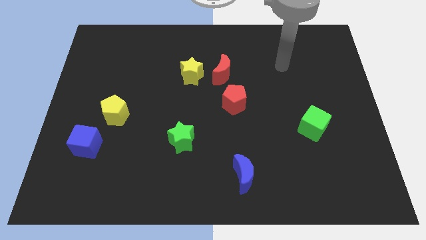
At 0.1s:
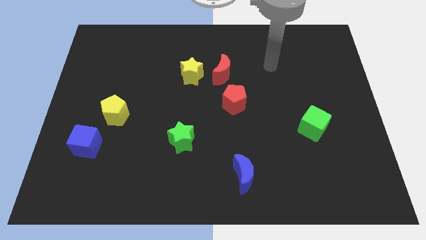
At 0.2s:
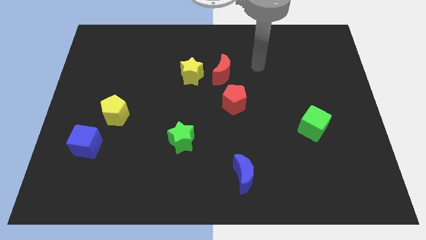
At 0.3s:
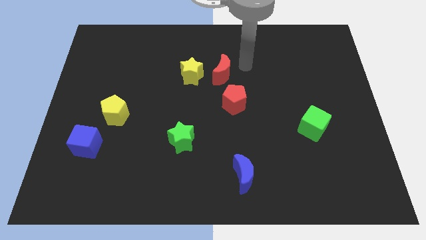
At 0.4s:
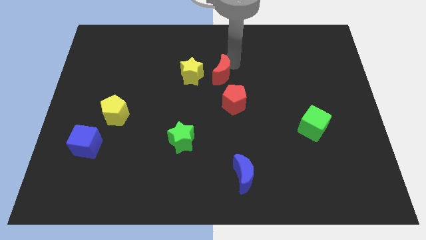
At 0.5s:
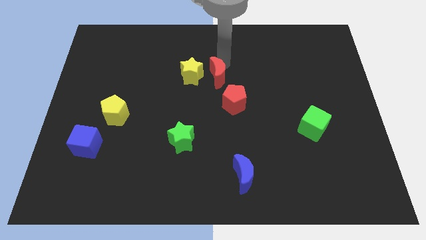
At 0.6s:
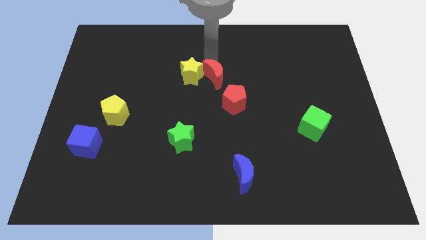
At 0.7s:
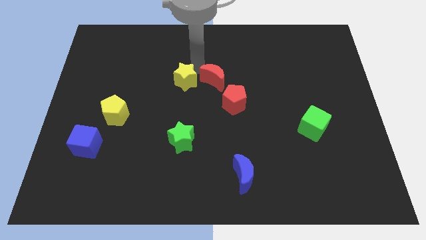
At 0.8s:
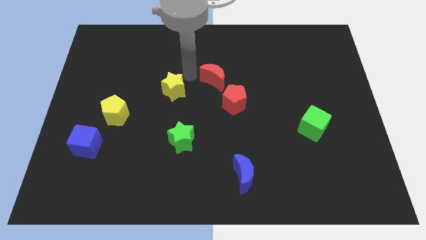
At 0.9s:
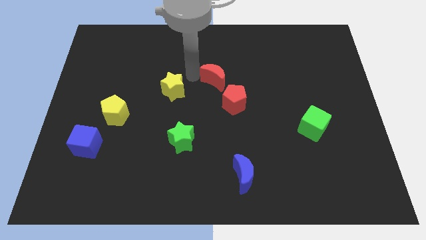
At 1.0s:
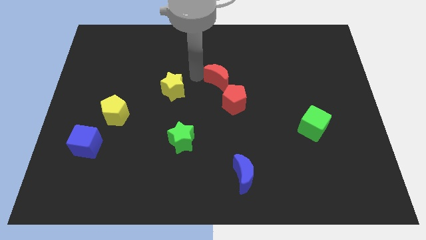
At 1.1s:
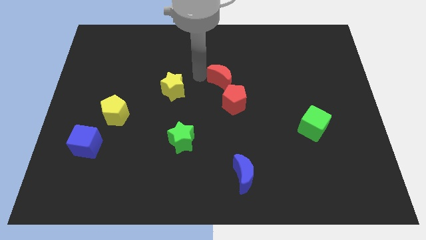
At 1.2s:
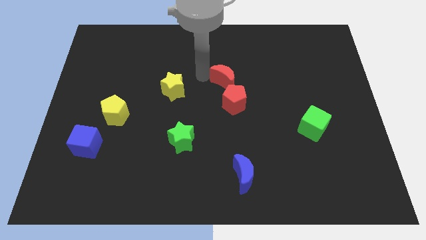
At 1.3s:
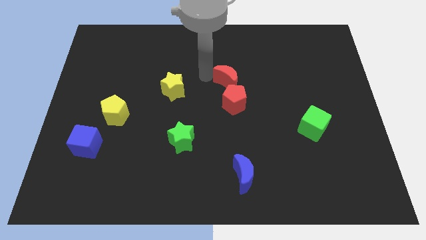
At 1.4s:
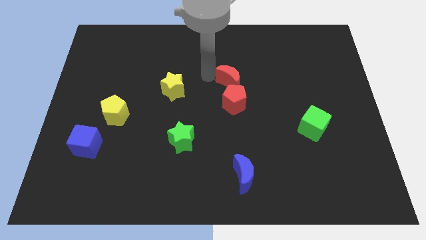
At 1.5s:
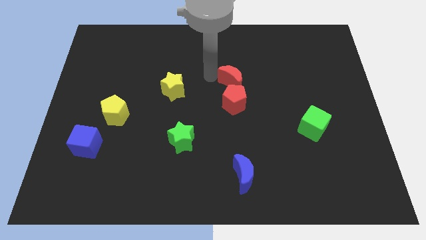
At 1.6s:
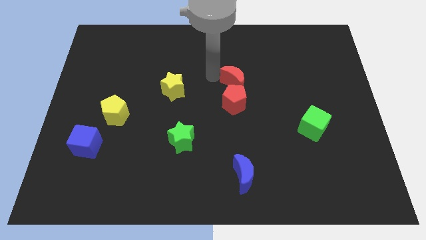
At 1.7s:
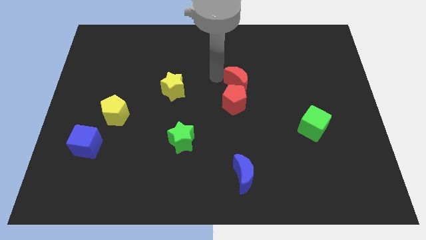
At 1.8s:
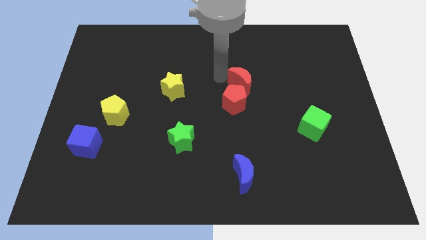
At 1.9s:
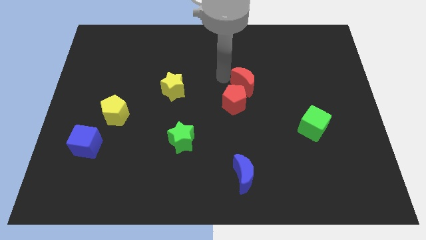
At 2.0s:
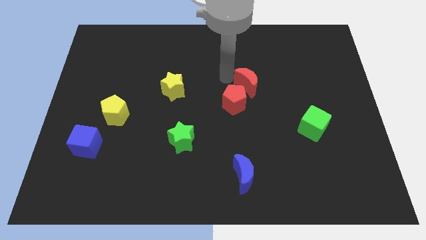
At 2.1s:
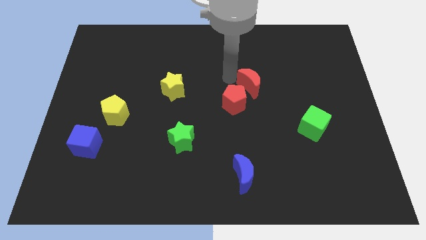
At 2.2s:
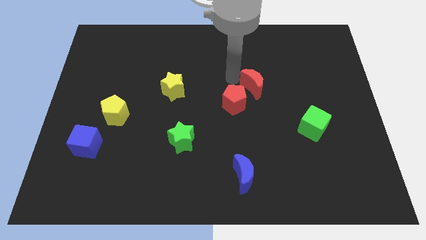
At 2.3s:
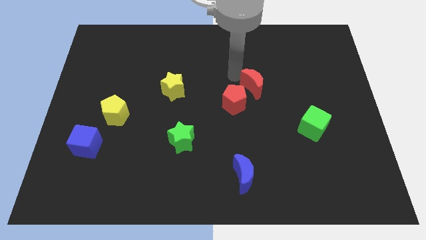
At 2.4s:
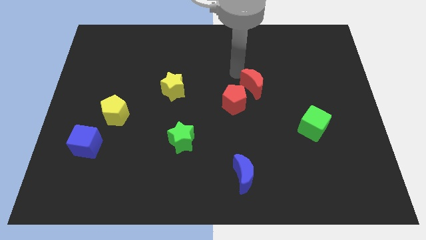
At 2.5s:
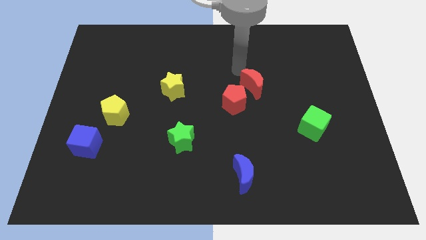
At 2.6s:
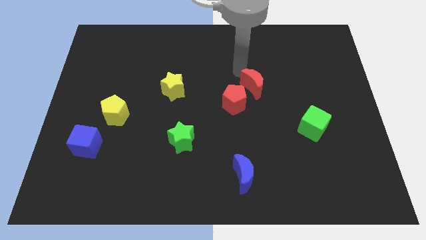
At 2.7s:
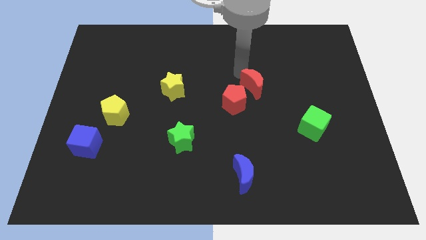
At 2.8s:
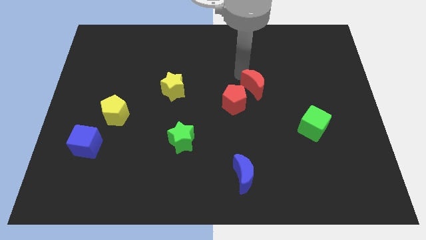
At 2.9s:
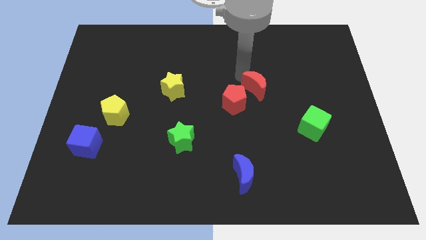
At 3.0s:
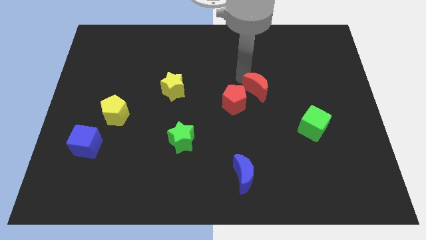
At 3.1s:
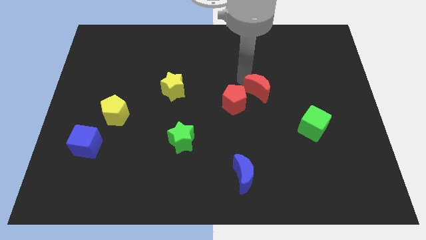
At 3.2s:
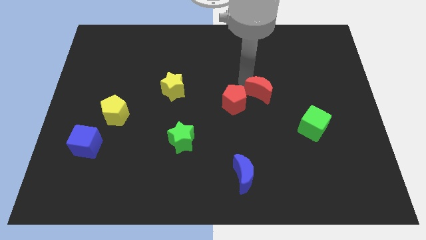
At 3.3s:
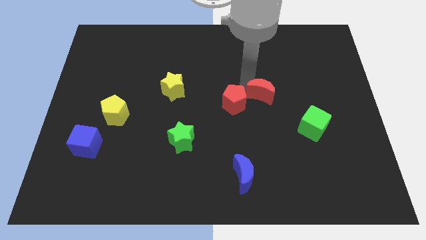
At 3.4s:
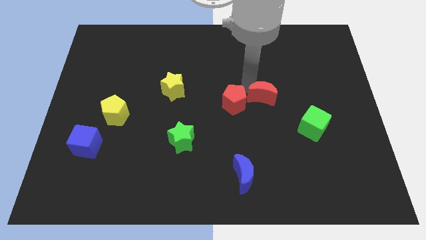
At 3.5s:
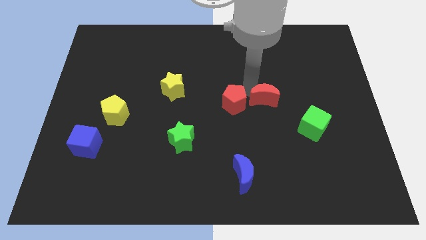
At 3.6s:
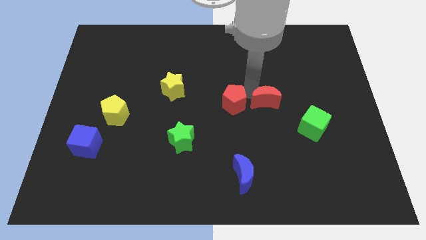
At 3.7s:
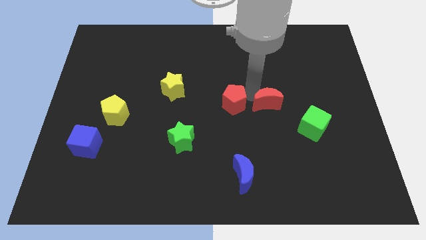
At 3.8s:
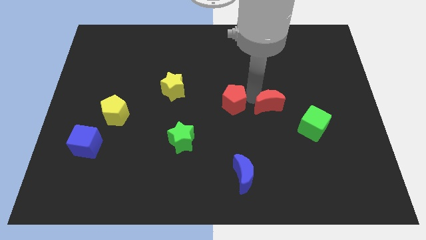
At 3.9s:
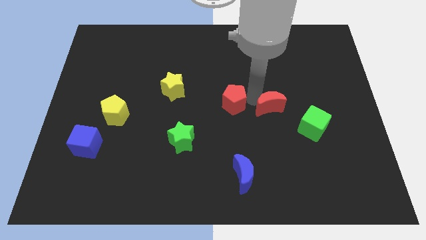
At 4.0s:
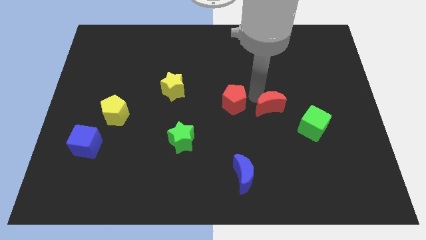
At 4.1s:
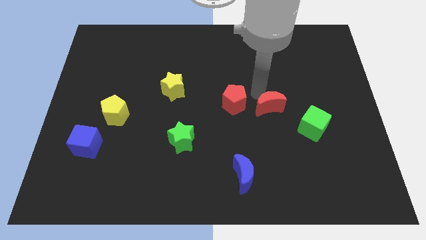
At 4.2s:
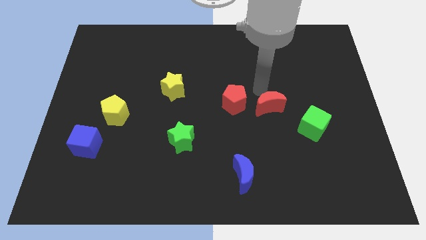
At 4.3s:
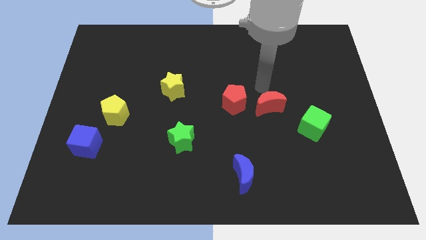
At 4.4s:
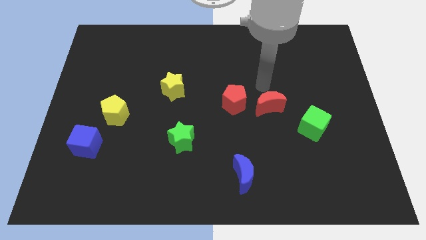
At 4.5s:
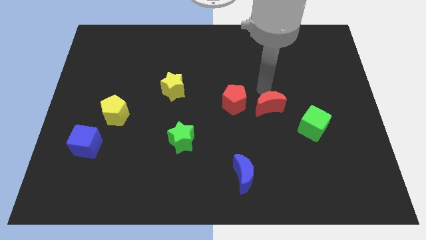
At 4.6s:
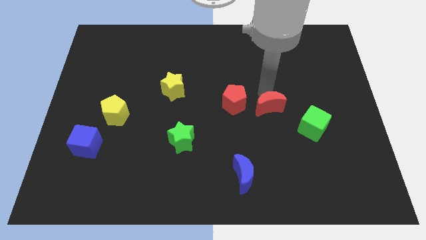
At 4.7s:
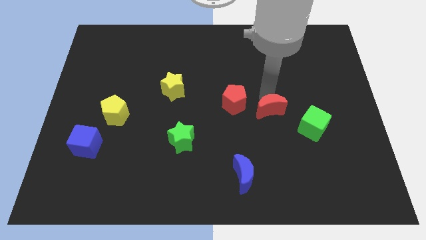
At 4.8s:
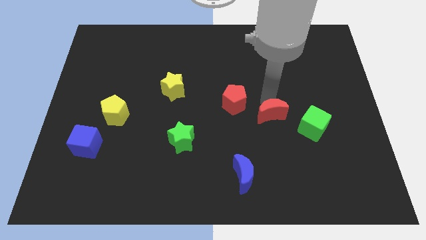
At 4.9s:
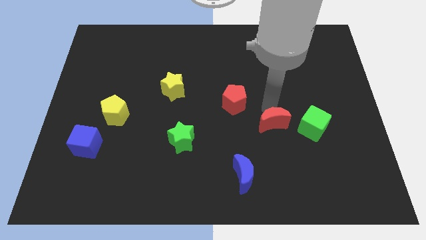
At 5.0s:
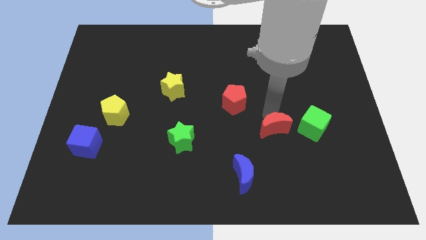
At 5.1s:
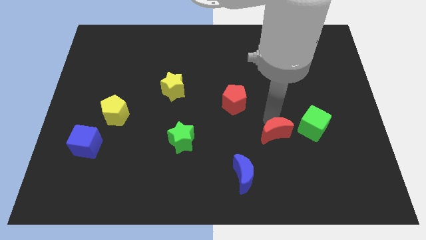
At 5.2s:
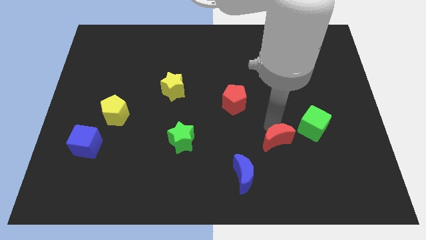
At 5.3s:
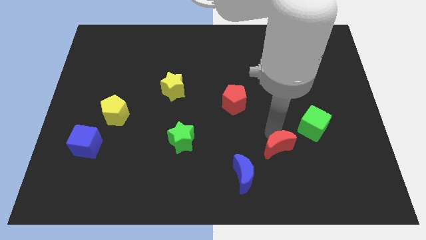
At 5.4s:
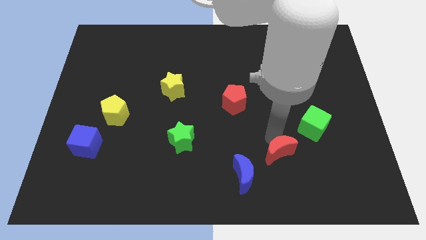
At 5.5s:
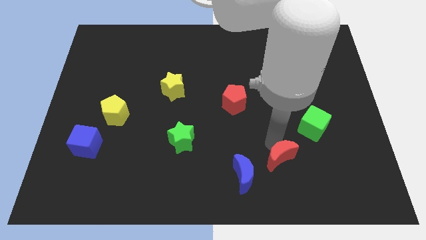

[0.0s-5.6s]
put the red moon right of the blue moon

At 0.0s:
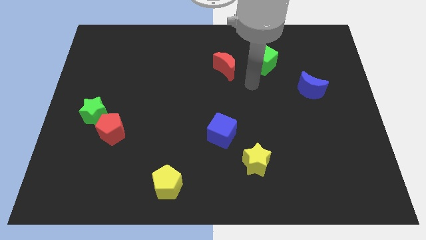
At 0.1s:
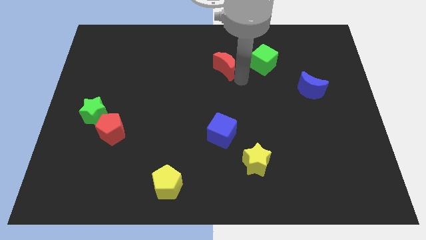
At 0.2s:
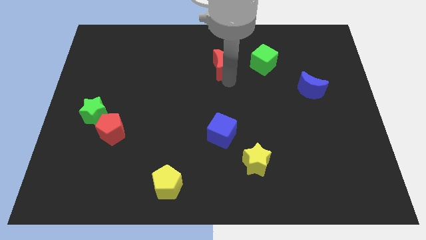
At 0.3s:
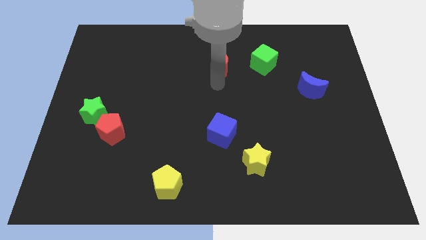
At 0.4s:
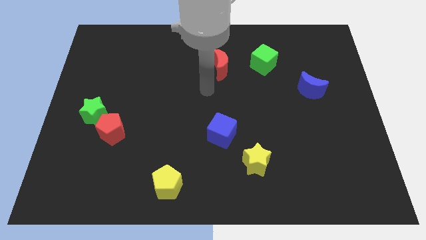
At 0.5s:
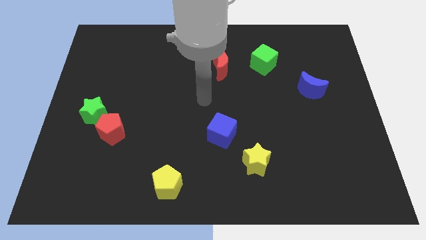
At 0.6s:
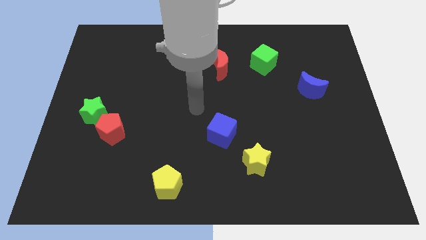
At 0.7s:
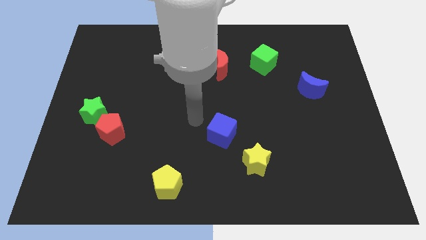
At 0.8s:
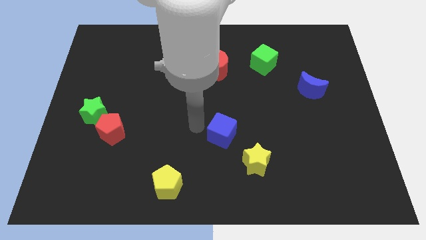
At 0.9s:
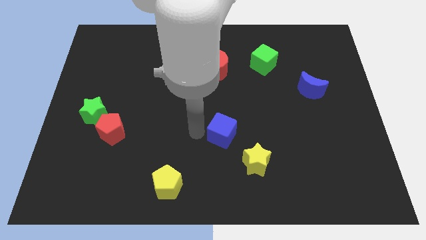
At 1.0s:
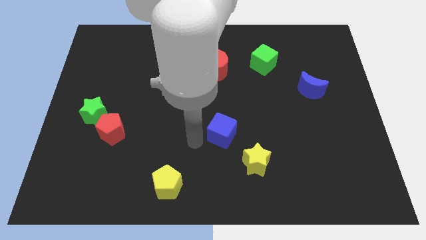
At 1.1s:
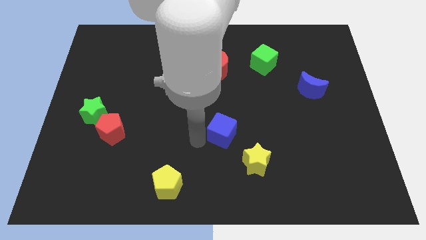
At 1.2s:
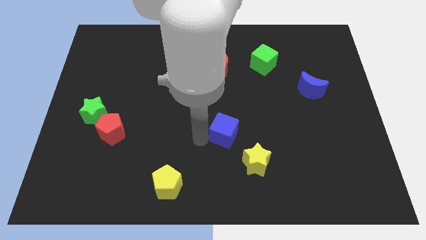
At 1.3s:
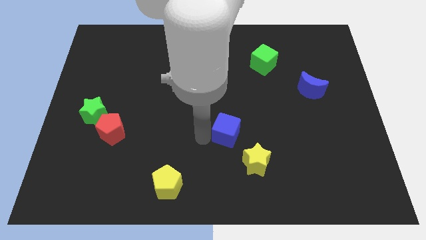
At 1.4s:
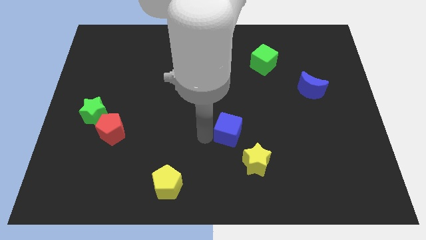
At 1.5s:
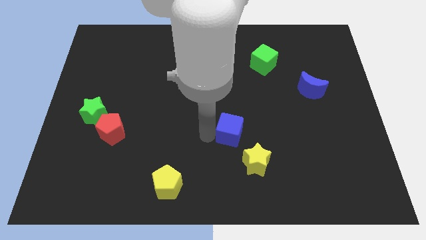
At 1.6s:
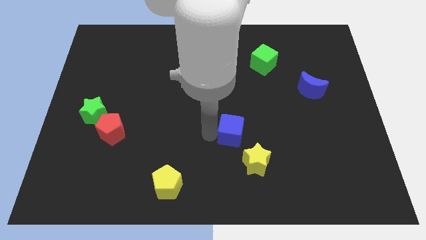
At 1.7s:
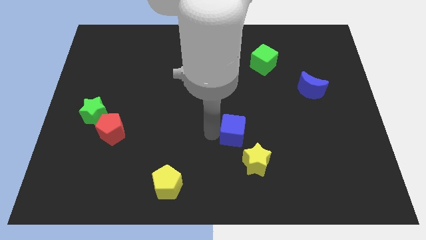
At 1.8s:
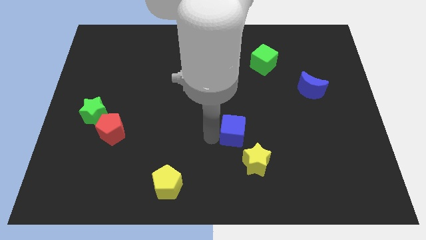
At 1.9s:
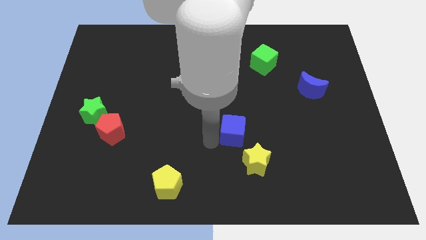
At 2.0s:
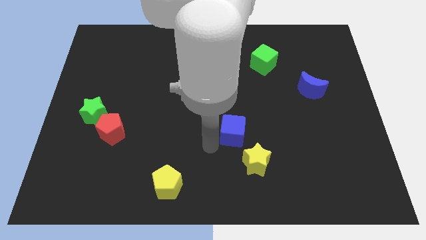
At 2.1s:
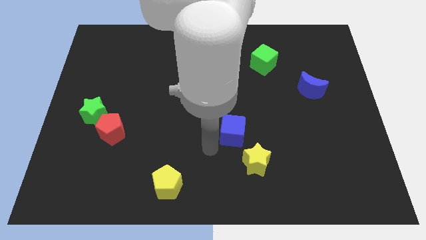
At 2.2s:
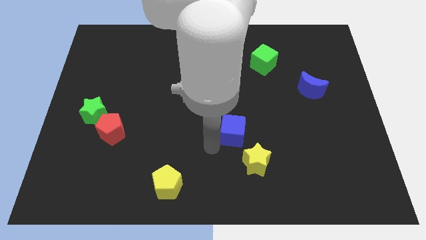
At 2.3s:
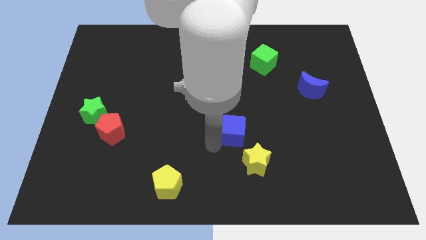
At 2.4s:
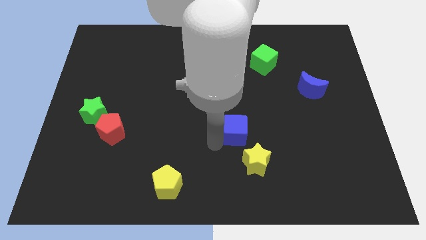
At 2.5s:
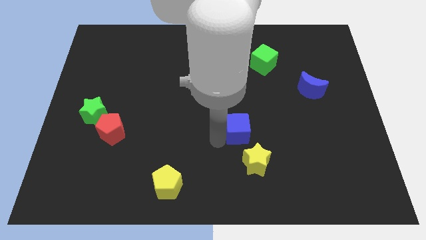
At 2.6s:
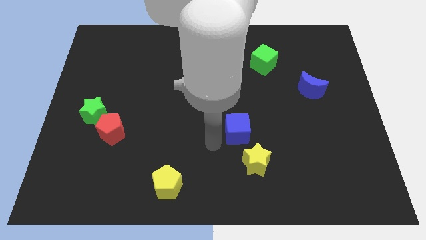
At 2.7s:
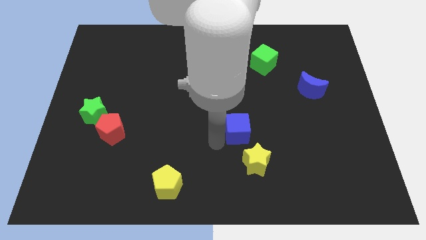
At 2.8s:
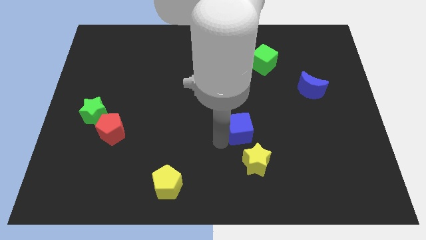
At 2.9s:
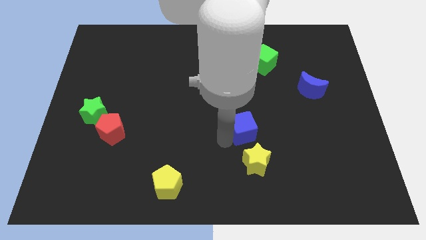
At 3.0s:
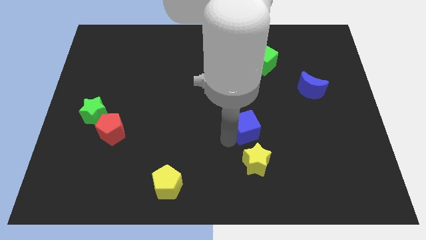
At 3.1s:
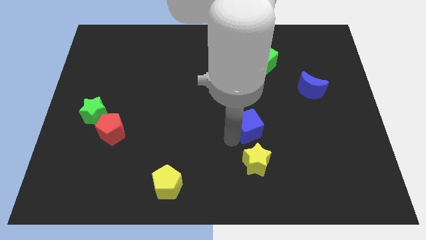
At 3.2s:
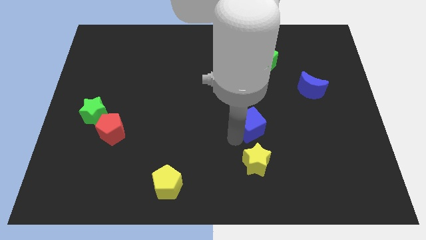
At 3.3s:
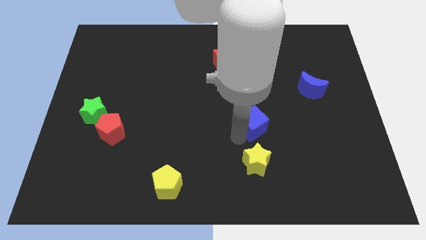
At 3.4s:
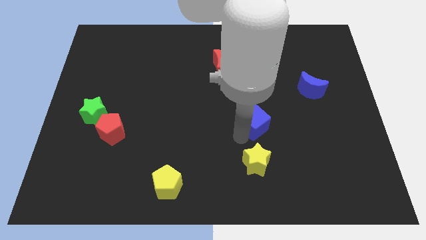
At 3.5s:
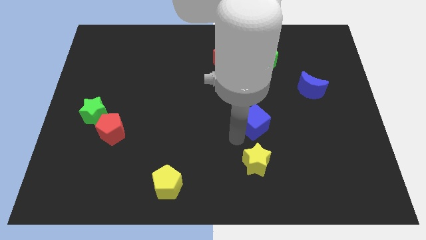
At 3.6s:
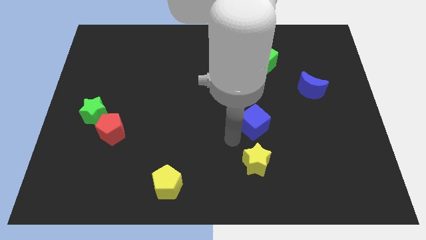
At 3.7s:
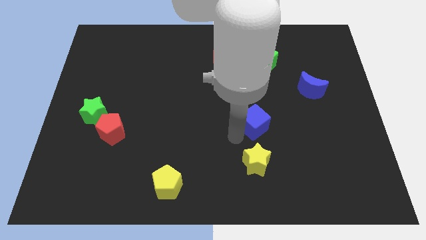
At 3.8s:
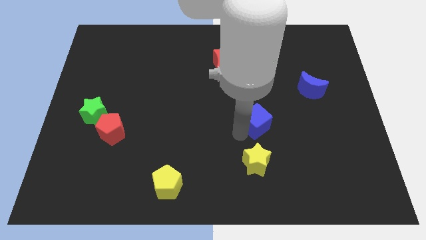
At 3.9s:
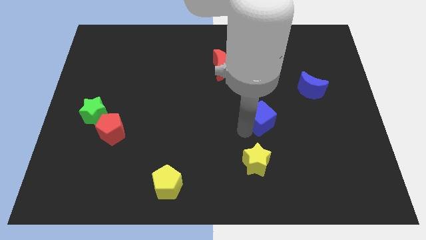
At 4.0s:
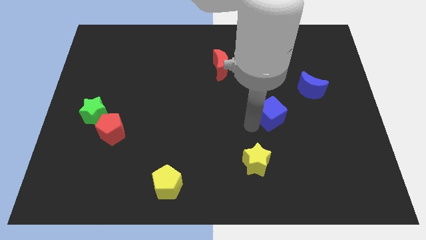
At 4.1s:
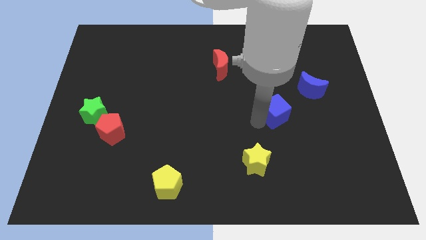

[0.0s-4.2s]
slide the blue cube to the bottom left side of the blue moon
